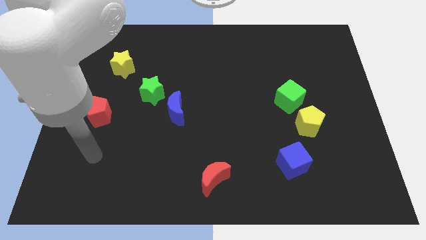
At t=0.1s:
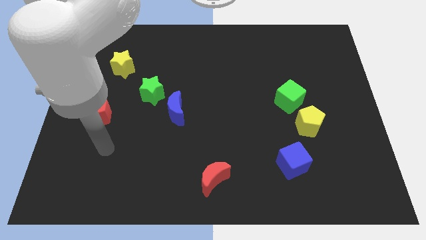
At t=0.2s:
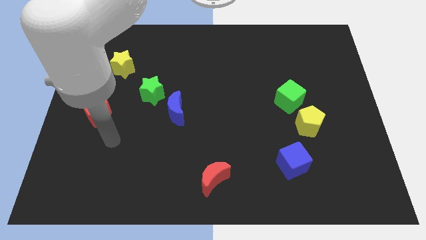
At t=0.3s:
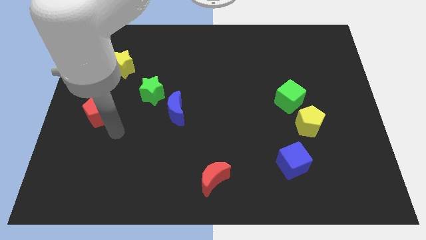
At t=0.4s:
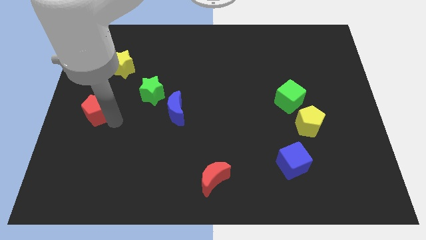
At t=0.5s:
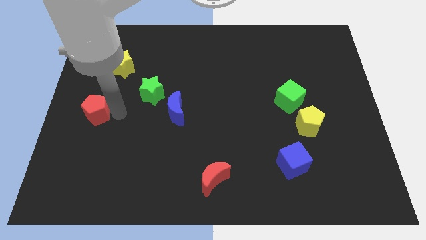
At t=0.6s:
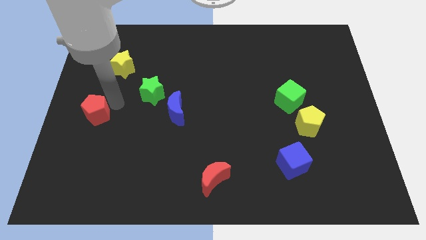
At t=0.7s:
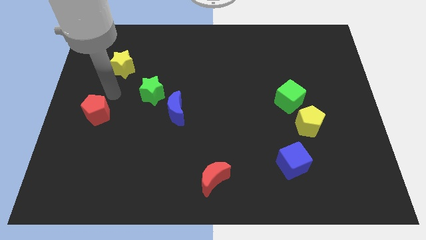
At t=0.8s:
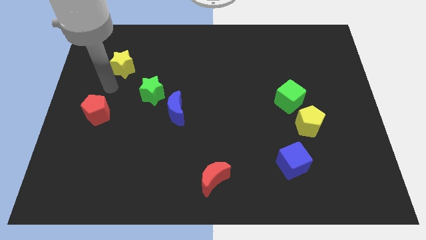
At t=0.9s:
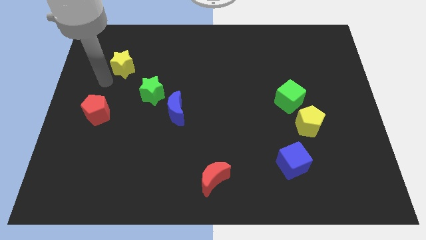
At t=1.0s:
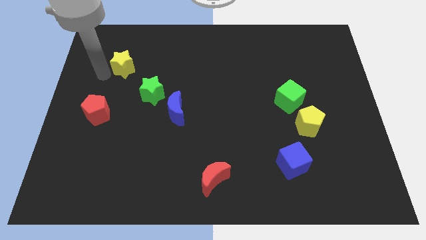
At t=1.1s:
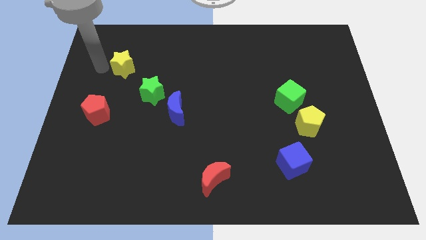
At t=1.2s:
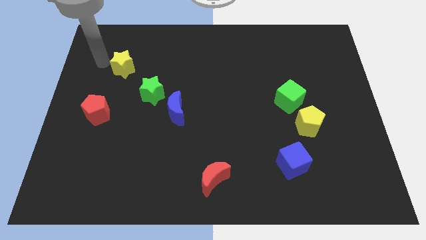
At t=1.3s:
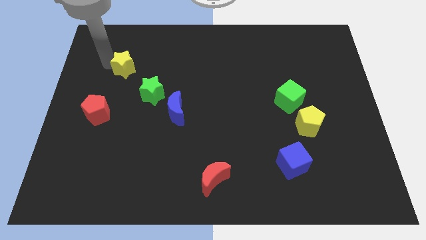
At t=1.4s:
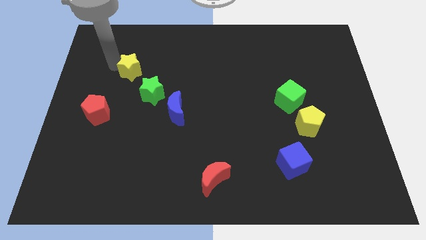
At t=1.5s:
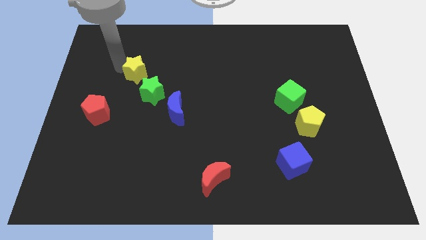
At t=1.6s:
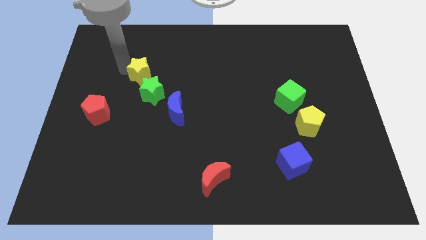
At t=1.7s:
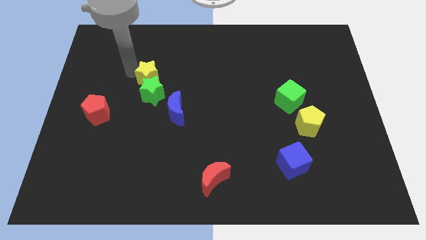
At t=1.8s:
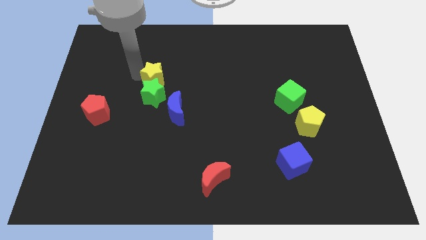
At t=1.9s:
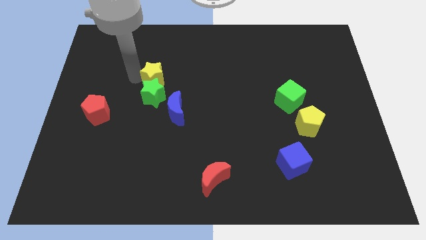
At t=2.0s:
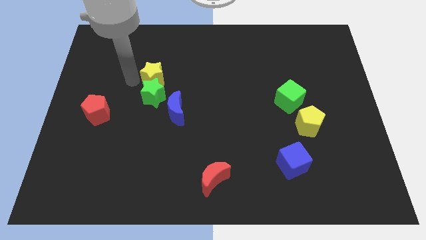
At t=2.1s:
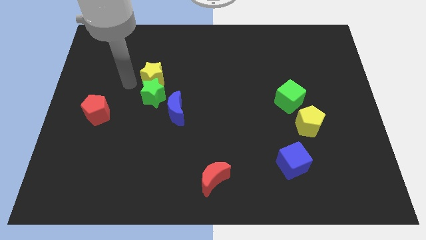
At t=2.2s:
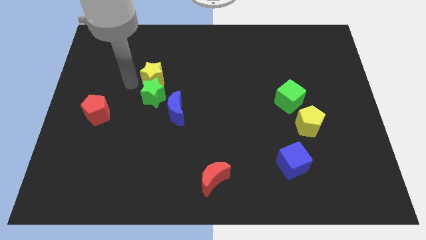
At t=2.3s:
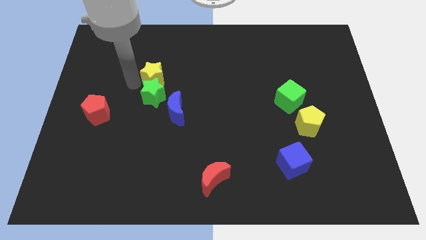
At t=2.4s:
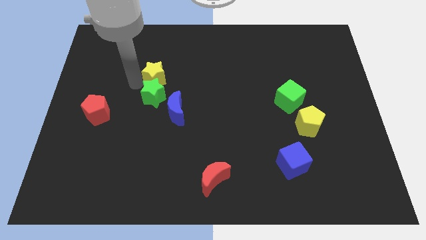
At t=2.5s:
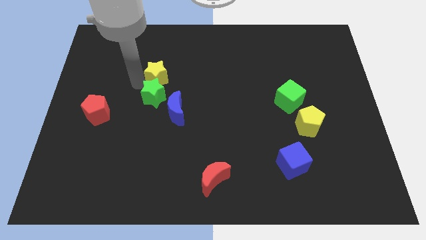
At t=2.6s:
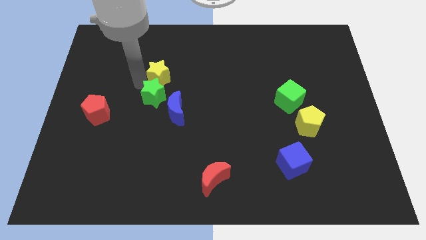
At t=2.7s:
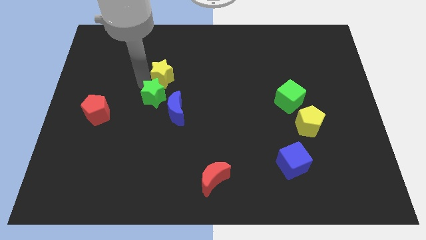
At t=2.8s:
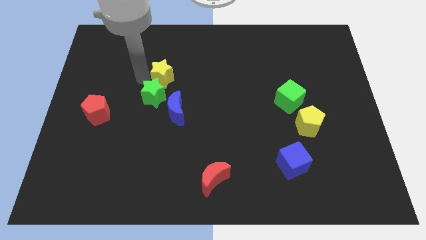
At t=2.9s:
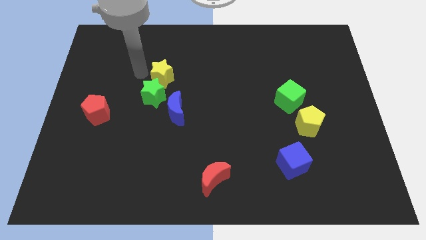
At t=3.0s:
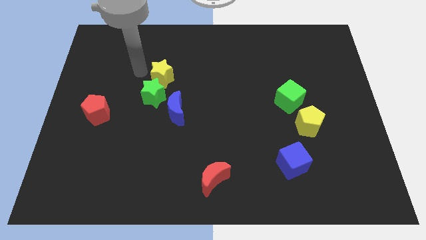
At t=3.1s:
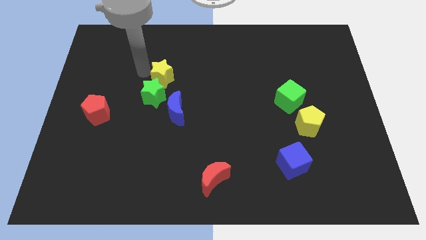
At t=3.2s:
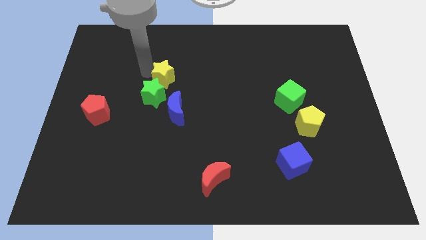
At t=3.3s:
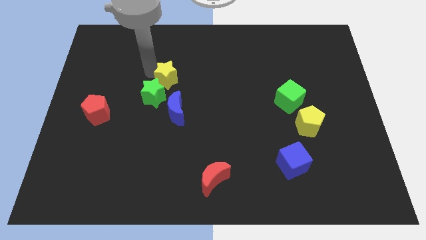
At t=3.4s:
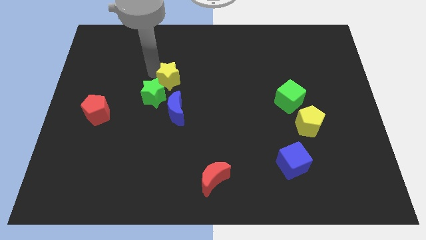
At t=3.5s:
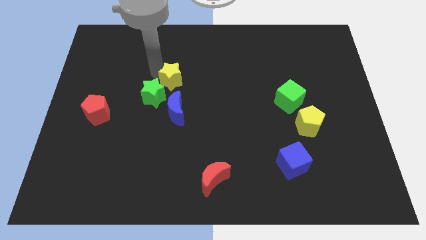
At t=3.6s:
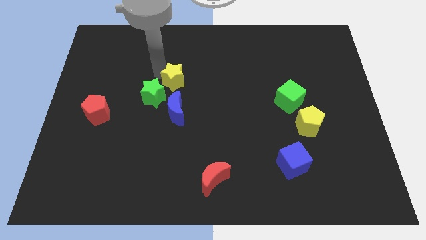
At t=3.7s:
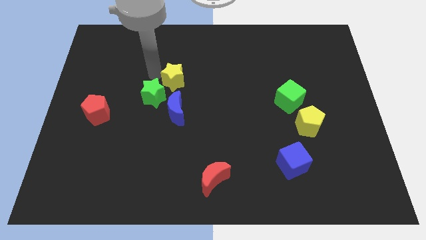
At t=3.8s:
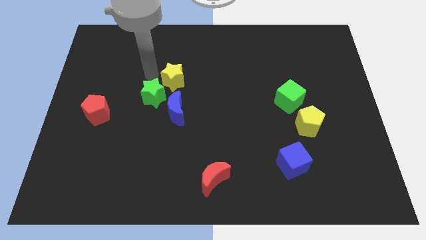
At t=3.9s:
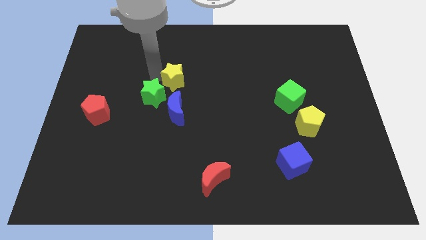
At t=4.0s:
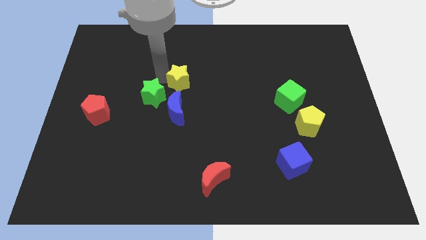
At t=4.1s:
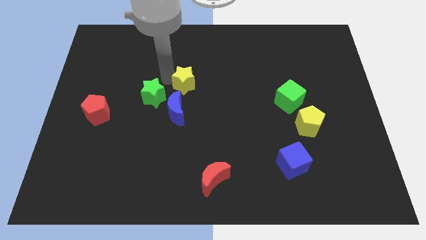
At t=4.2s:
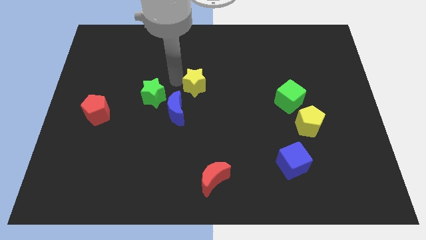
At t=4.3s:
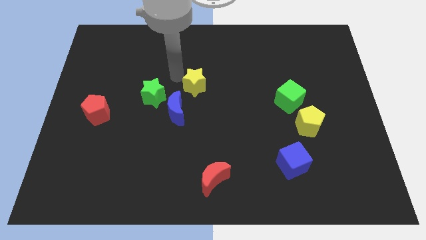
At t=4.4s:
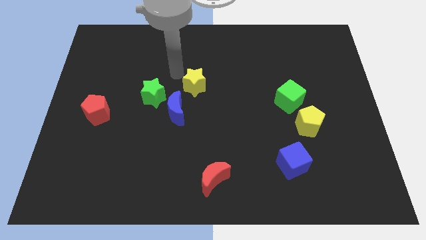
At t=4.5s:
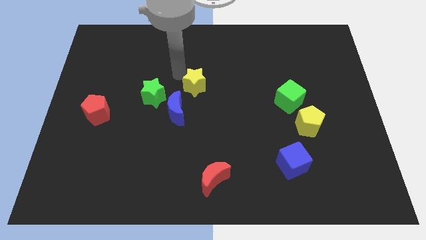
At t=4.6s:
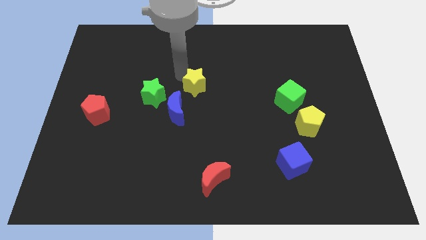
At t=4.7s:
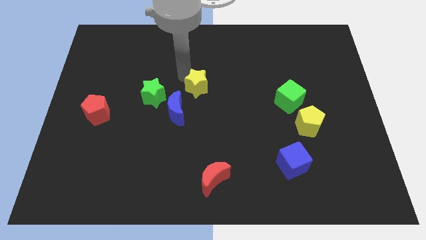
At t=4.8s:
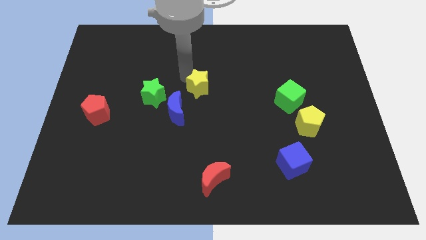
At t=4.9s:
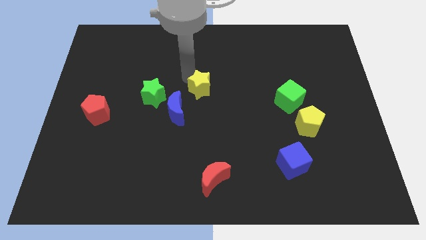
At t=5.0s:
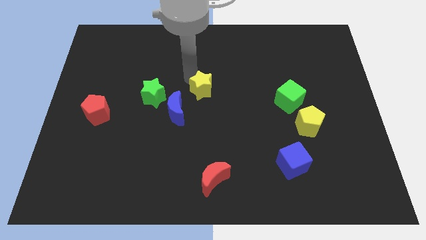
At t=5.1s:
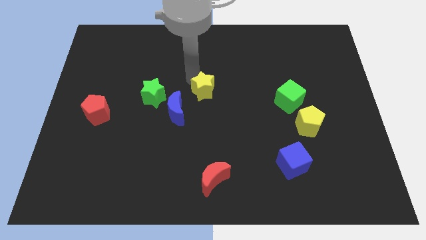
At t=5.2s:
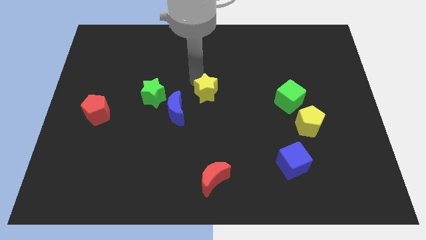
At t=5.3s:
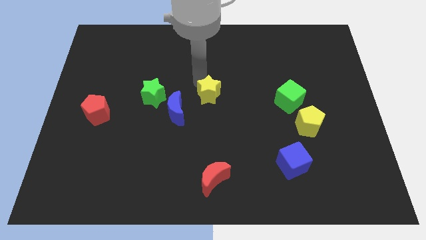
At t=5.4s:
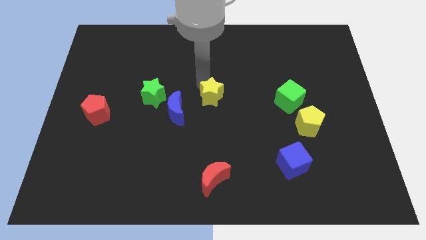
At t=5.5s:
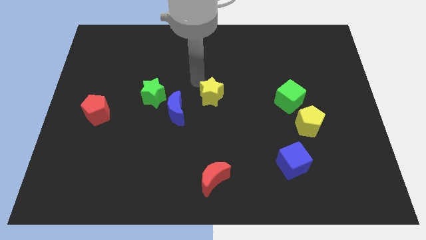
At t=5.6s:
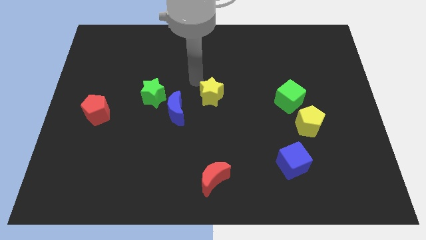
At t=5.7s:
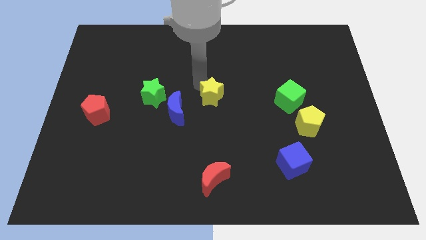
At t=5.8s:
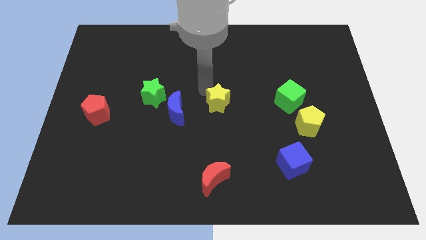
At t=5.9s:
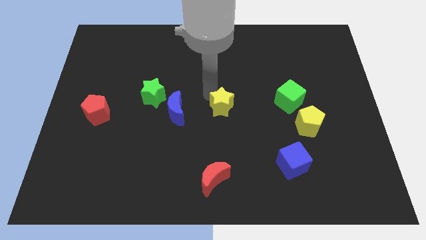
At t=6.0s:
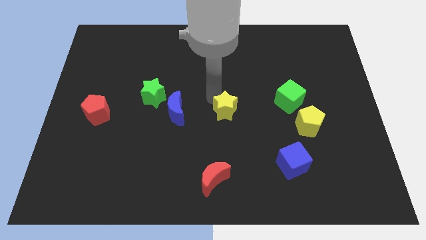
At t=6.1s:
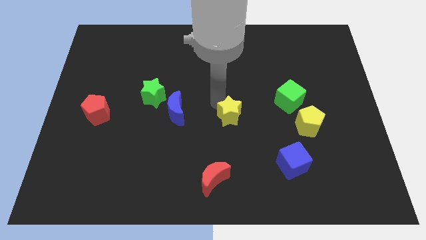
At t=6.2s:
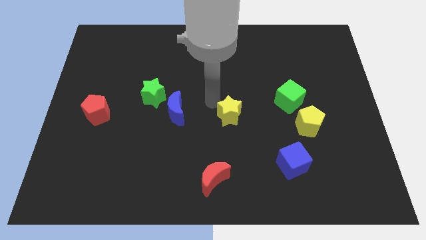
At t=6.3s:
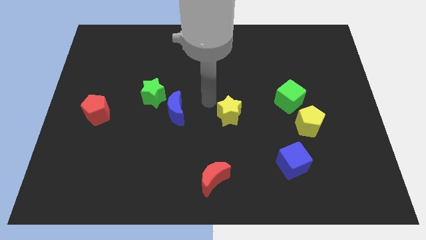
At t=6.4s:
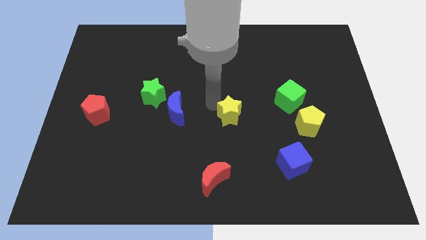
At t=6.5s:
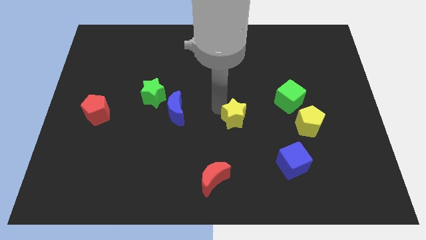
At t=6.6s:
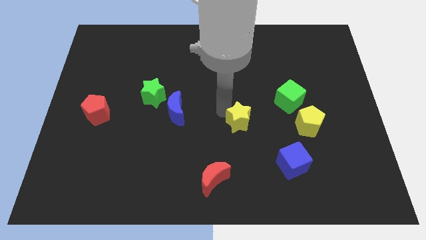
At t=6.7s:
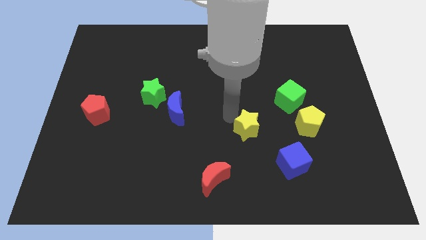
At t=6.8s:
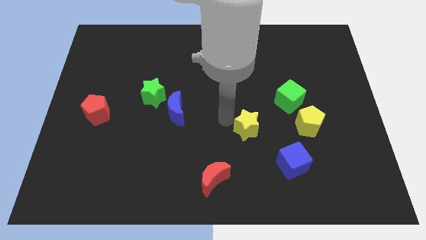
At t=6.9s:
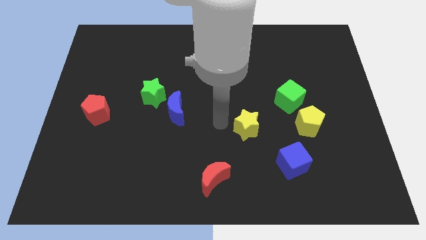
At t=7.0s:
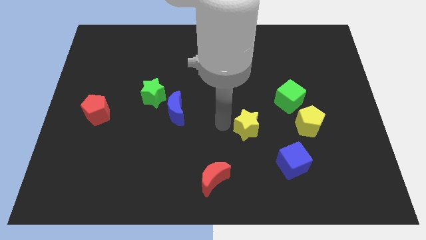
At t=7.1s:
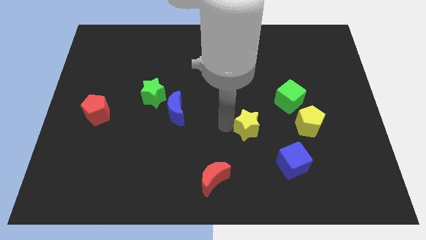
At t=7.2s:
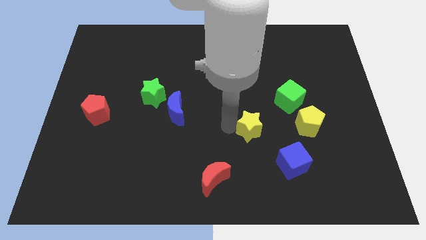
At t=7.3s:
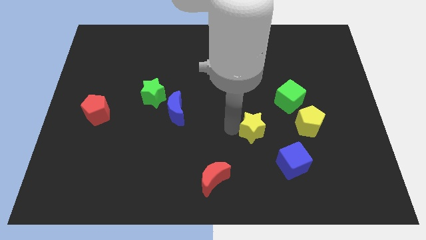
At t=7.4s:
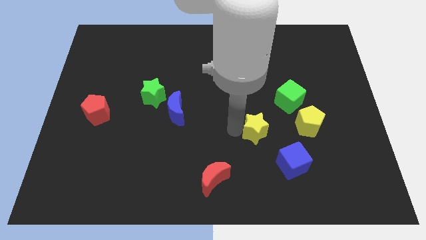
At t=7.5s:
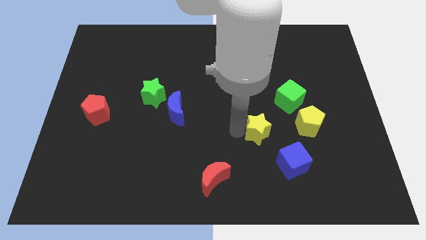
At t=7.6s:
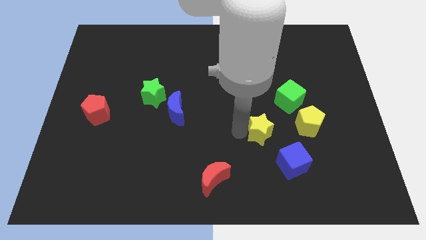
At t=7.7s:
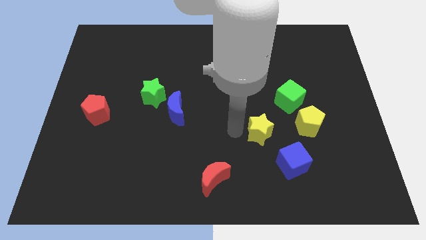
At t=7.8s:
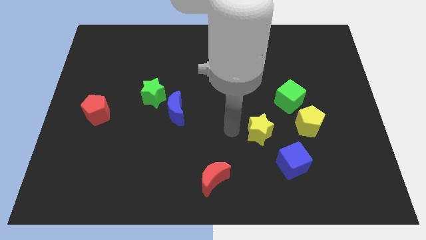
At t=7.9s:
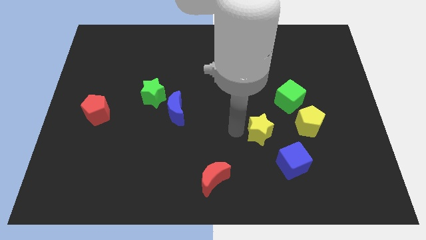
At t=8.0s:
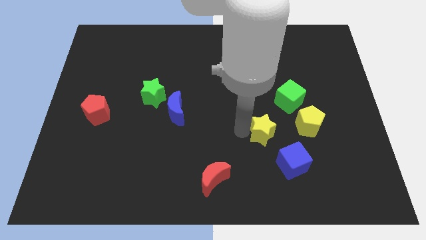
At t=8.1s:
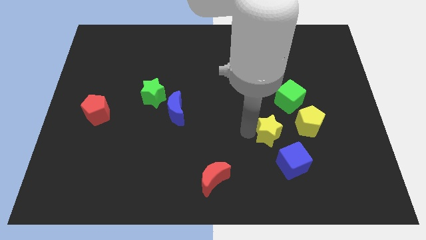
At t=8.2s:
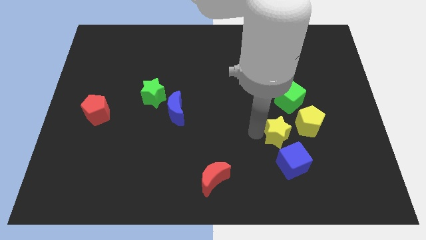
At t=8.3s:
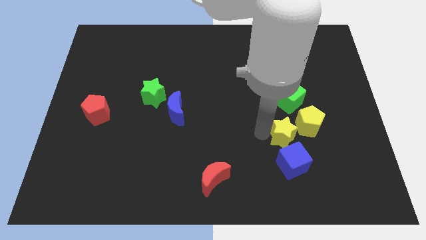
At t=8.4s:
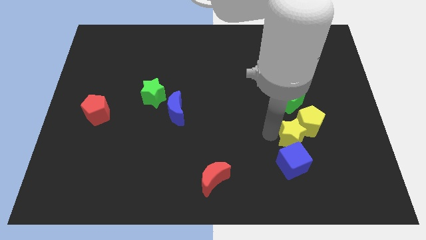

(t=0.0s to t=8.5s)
move the yellow star diagonally up and to the right of the blue cube
